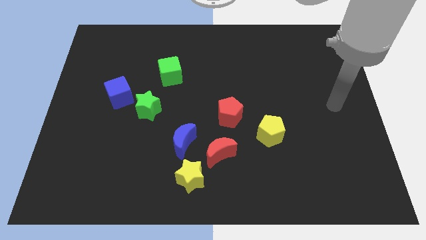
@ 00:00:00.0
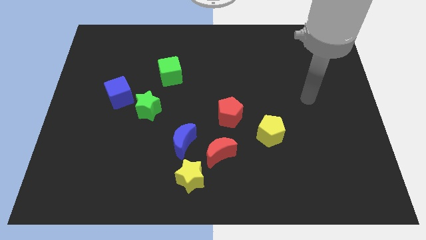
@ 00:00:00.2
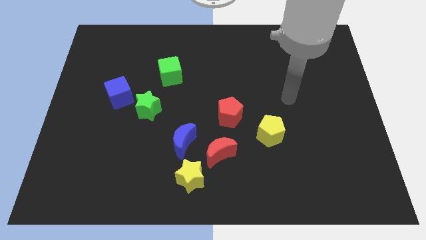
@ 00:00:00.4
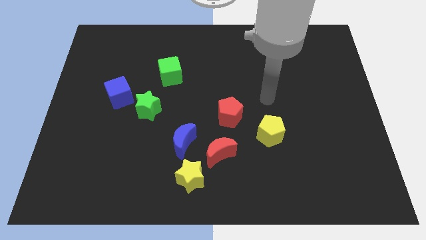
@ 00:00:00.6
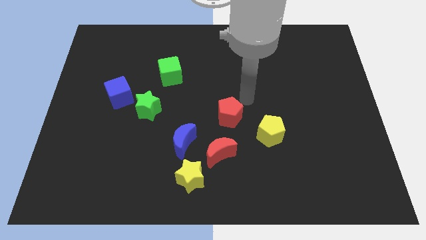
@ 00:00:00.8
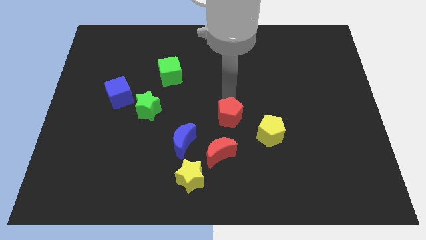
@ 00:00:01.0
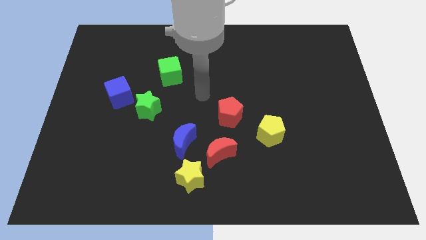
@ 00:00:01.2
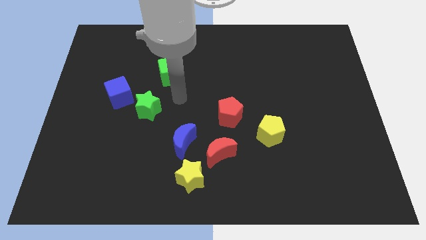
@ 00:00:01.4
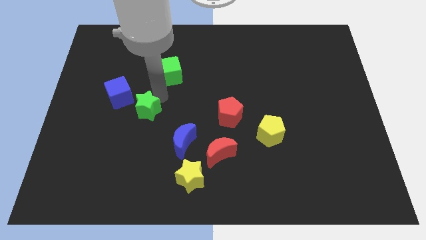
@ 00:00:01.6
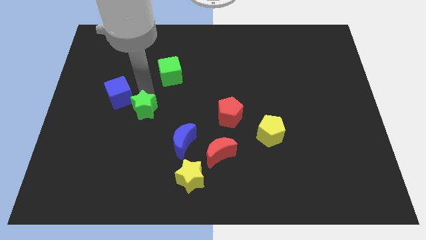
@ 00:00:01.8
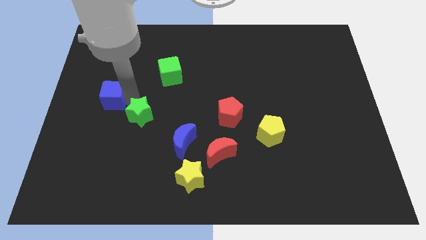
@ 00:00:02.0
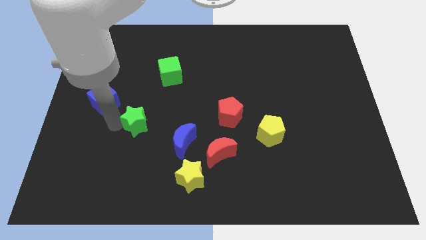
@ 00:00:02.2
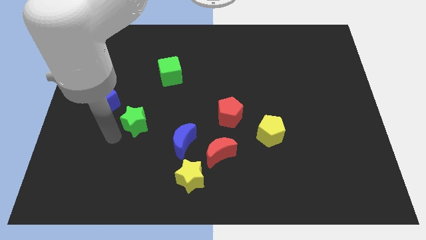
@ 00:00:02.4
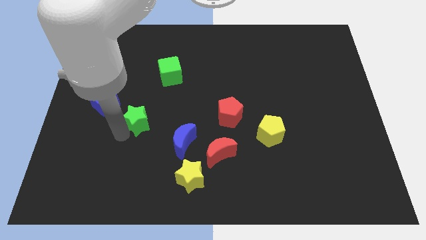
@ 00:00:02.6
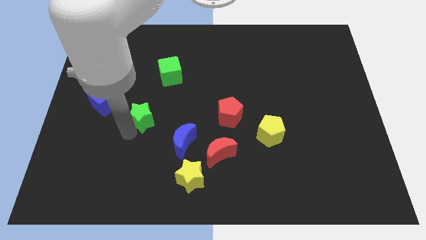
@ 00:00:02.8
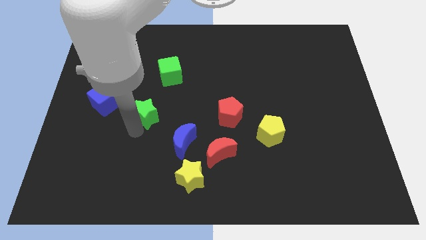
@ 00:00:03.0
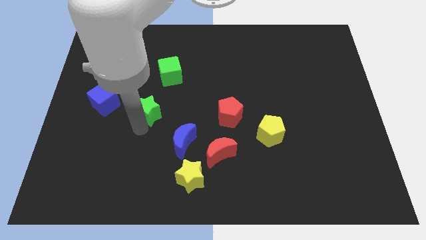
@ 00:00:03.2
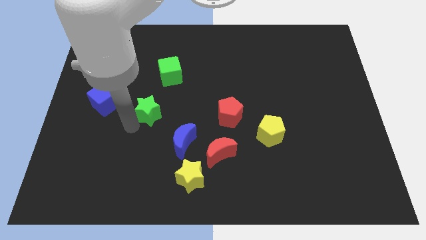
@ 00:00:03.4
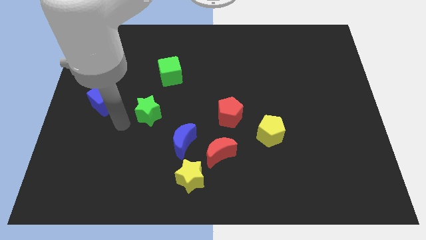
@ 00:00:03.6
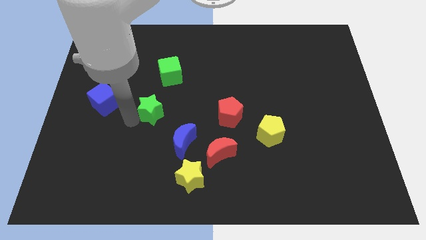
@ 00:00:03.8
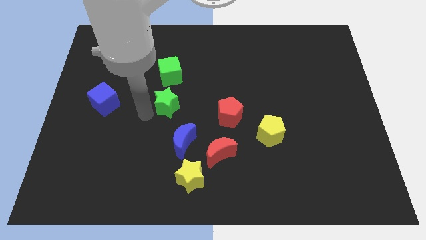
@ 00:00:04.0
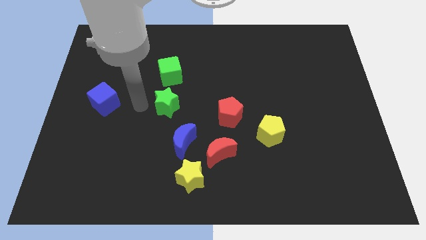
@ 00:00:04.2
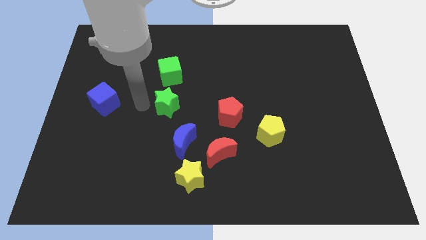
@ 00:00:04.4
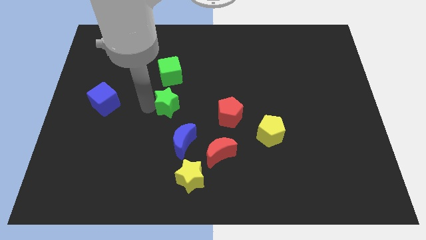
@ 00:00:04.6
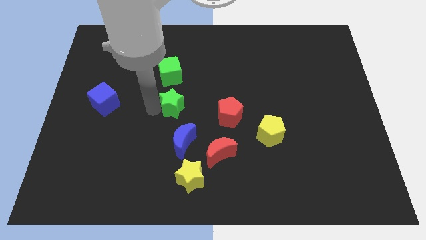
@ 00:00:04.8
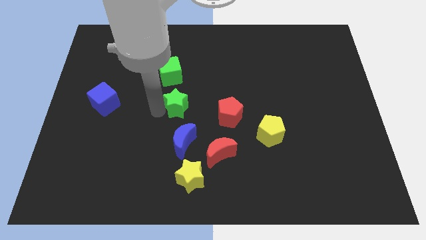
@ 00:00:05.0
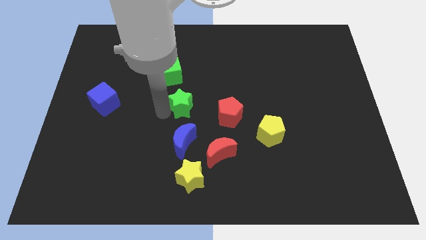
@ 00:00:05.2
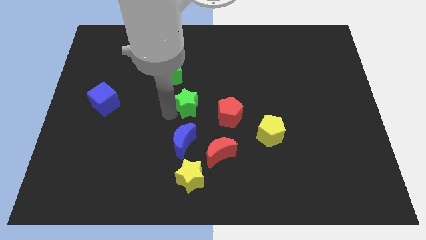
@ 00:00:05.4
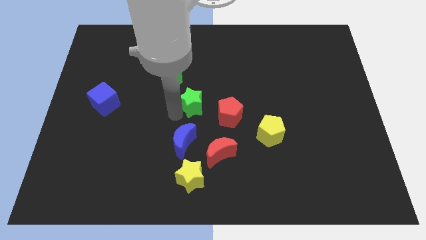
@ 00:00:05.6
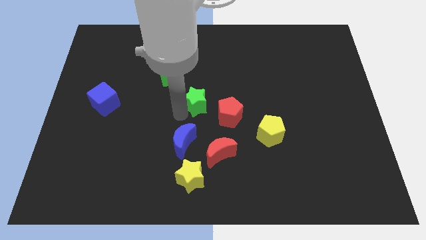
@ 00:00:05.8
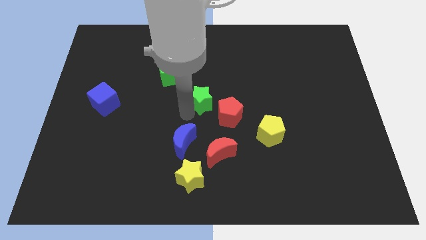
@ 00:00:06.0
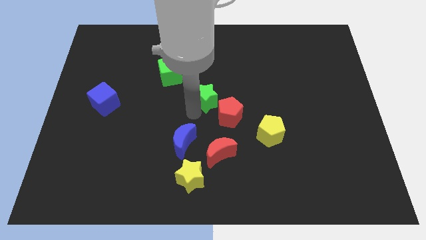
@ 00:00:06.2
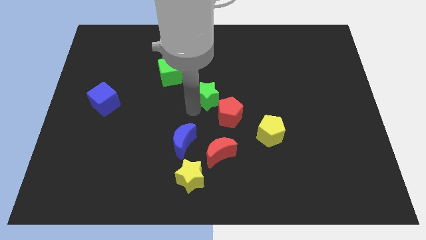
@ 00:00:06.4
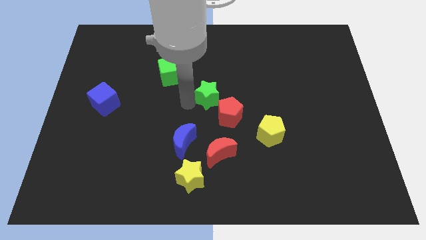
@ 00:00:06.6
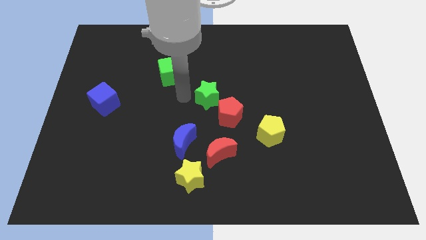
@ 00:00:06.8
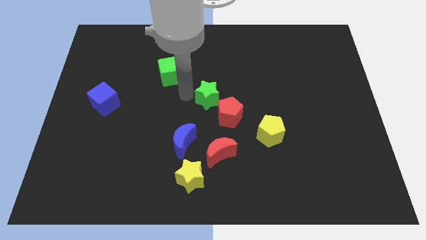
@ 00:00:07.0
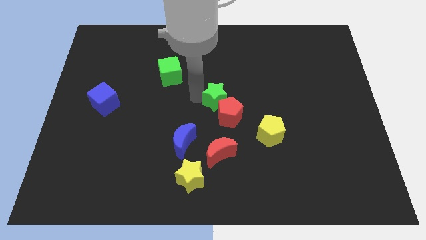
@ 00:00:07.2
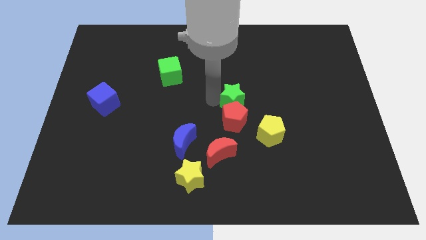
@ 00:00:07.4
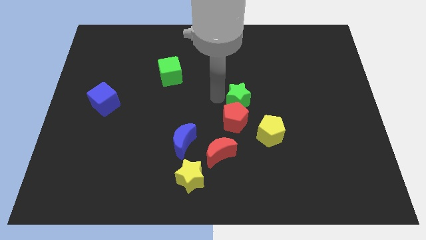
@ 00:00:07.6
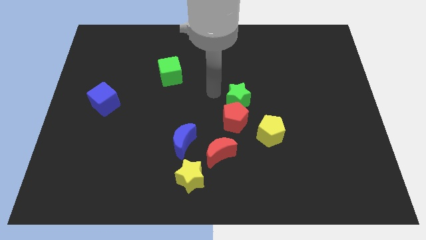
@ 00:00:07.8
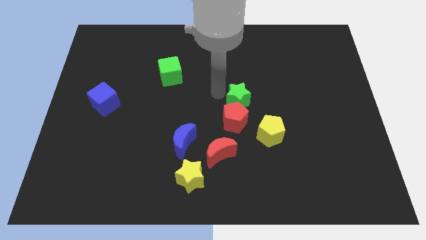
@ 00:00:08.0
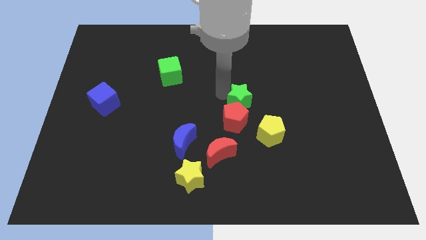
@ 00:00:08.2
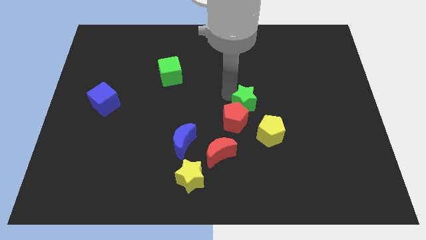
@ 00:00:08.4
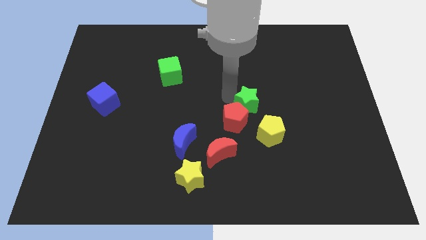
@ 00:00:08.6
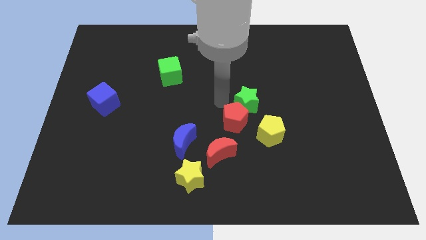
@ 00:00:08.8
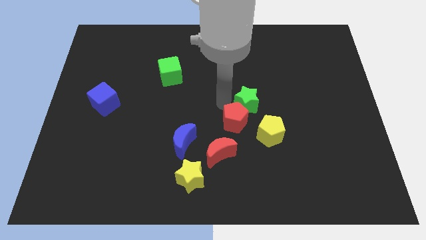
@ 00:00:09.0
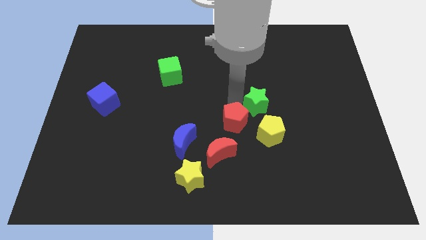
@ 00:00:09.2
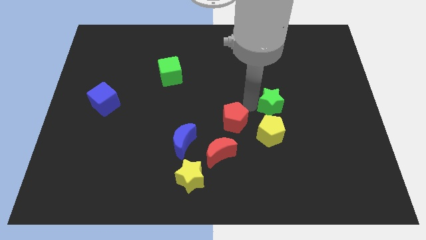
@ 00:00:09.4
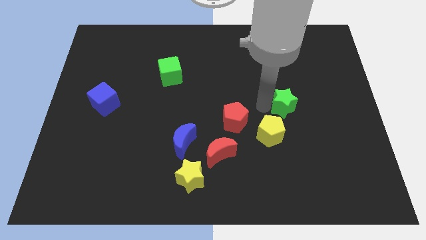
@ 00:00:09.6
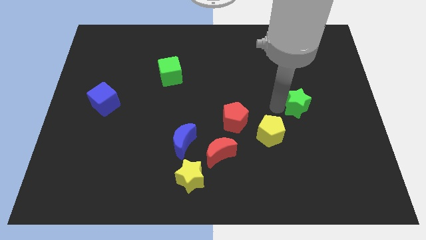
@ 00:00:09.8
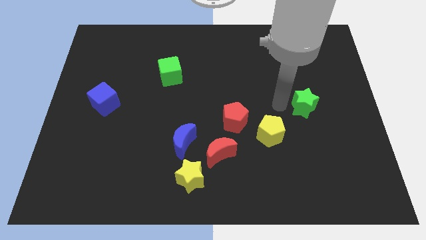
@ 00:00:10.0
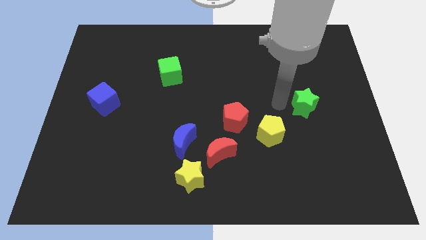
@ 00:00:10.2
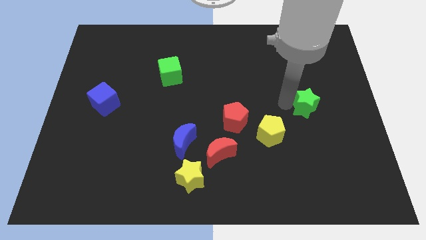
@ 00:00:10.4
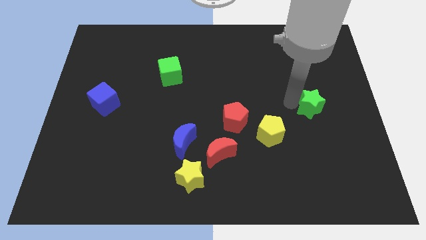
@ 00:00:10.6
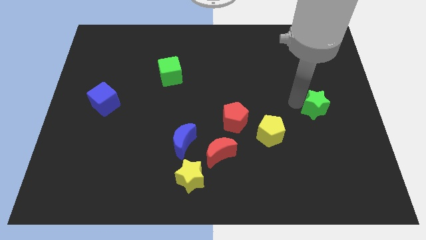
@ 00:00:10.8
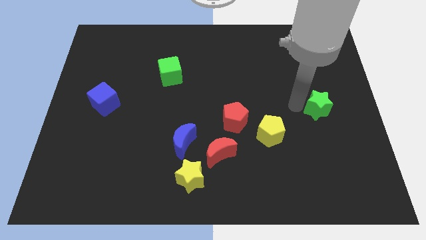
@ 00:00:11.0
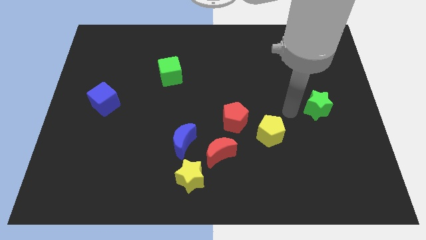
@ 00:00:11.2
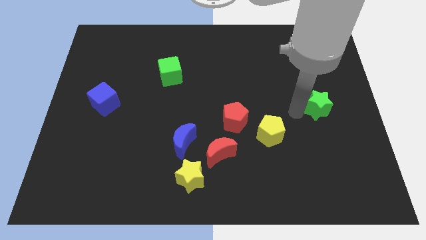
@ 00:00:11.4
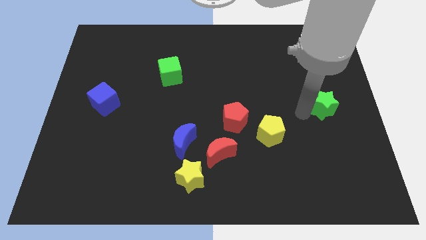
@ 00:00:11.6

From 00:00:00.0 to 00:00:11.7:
move the green star to the right side
